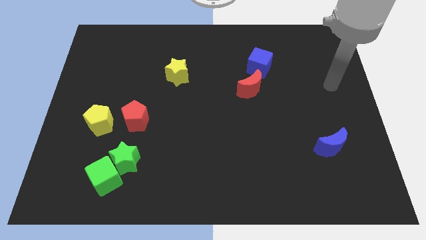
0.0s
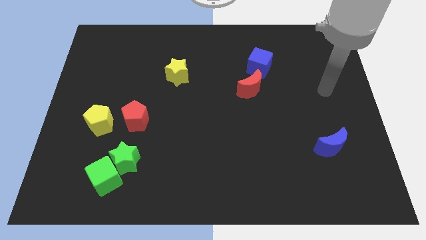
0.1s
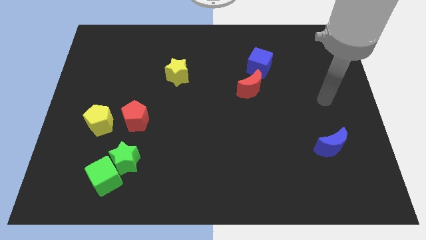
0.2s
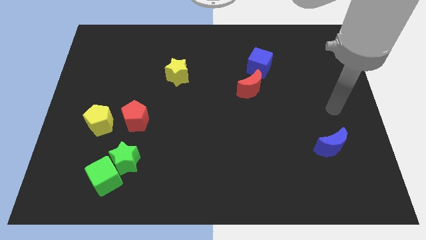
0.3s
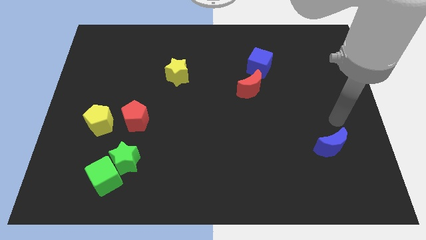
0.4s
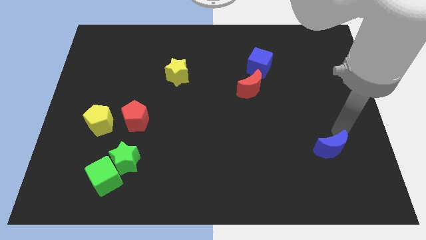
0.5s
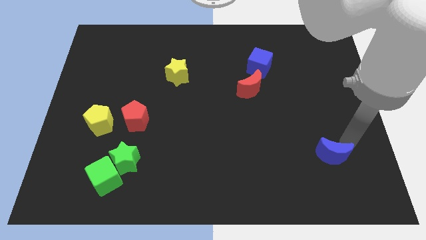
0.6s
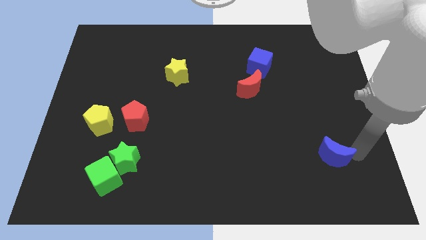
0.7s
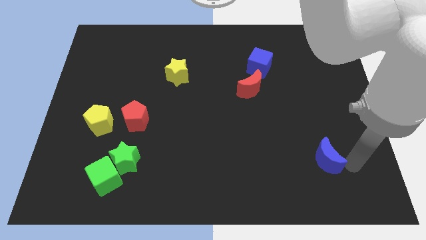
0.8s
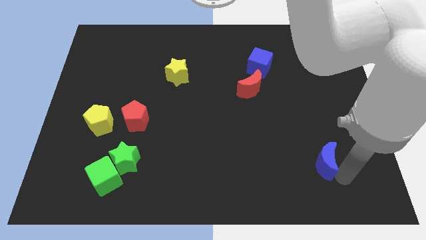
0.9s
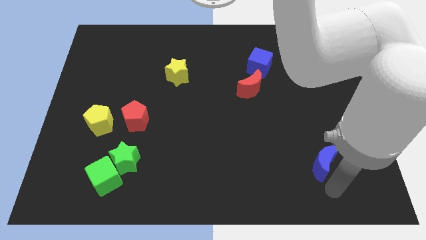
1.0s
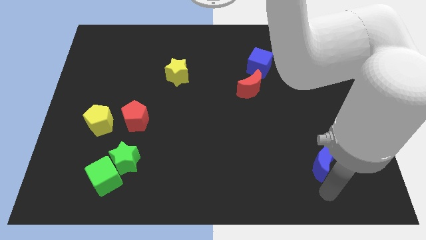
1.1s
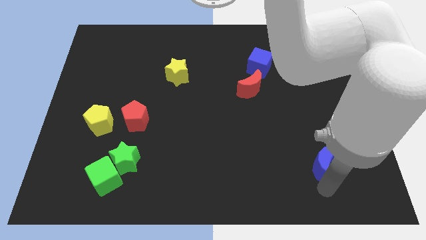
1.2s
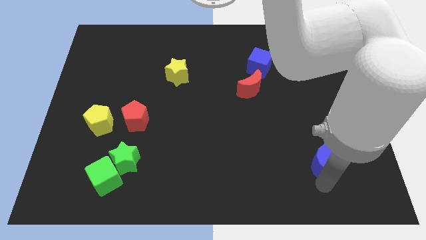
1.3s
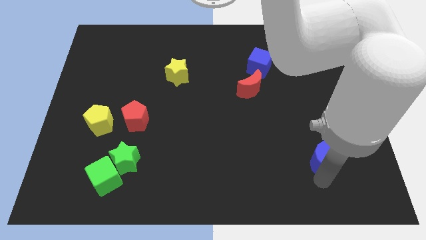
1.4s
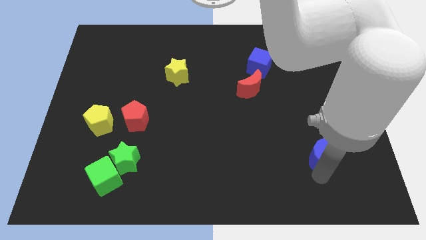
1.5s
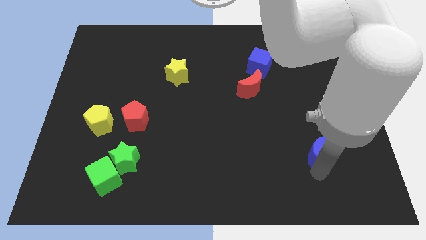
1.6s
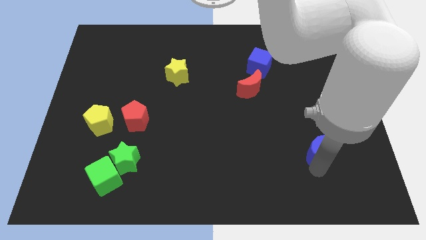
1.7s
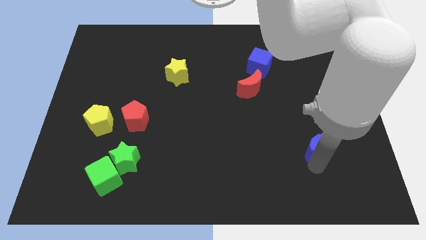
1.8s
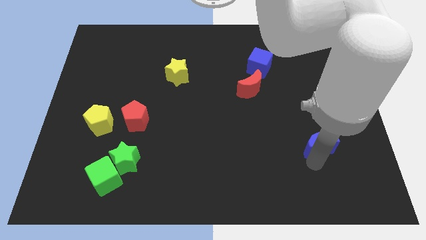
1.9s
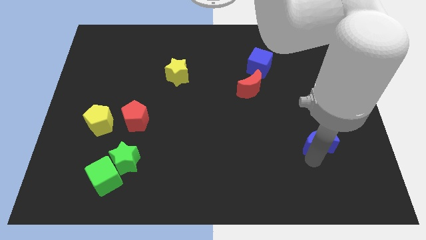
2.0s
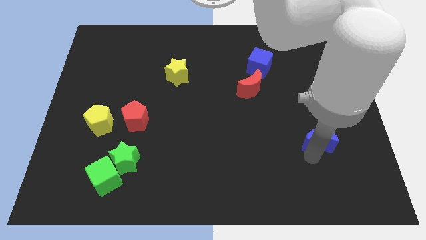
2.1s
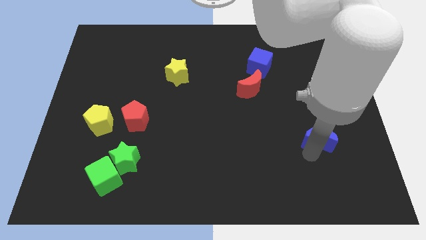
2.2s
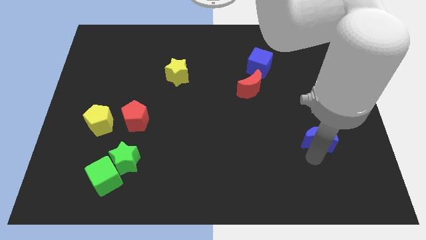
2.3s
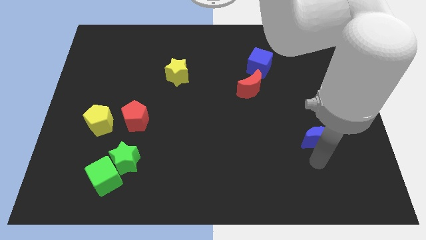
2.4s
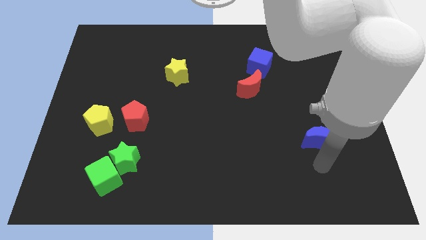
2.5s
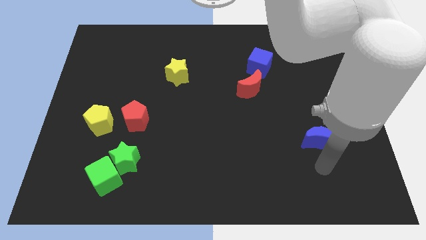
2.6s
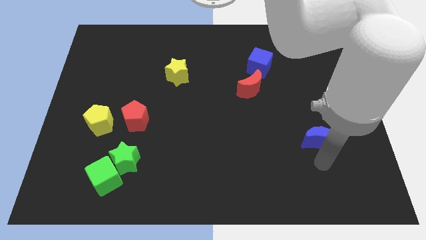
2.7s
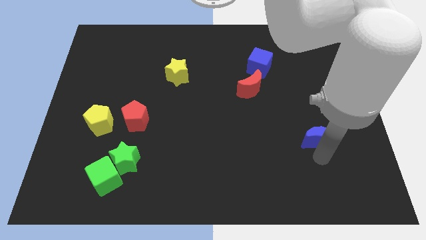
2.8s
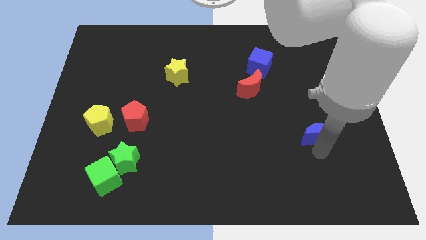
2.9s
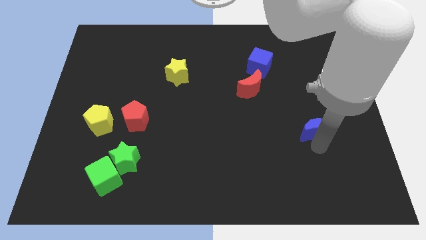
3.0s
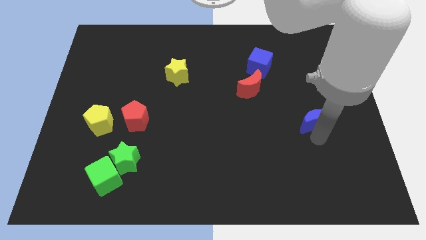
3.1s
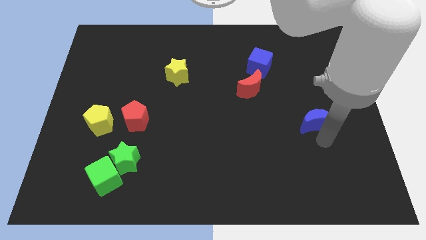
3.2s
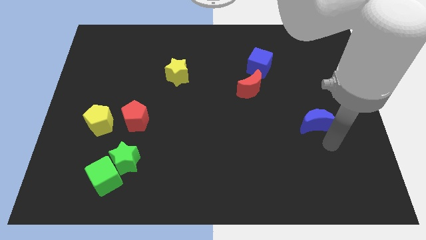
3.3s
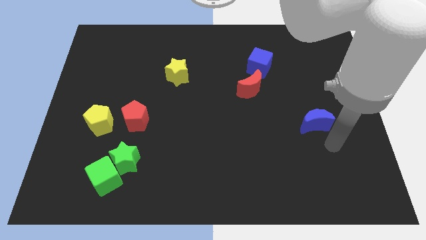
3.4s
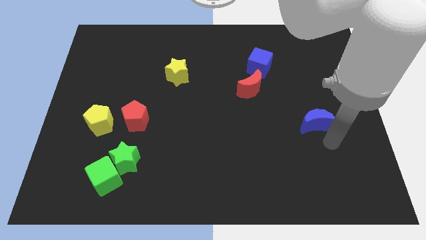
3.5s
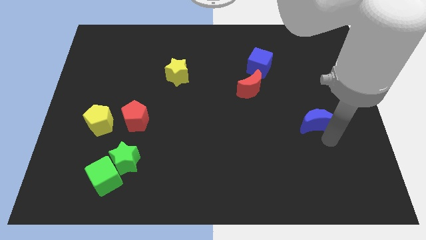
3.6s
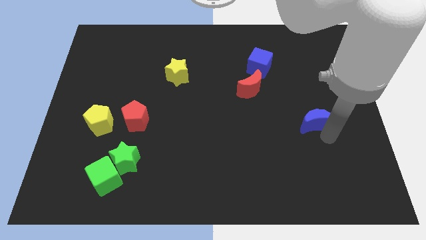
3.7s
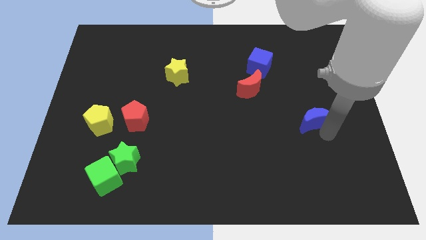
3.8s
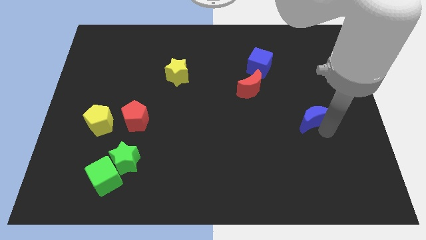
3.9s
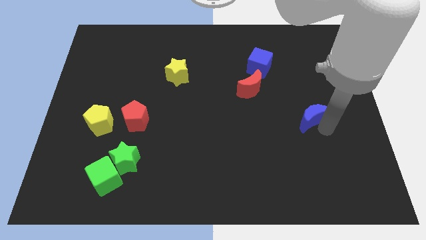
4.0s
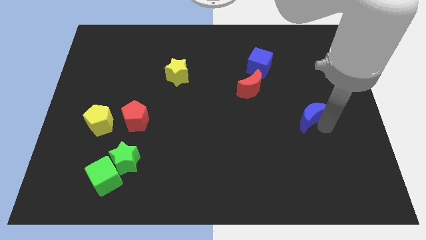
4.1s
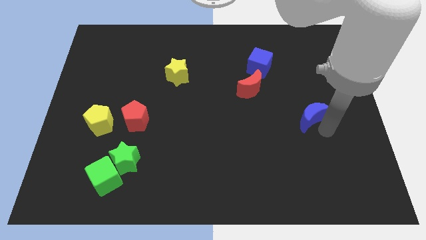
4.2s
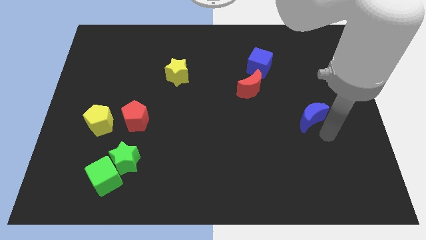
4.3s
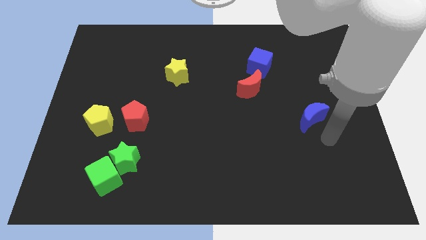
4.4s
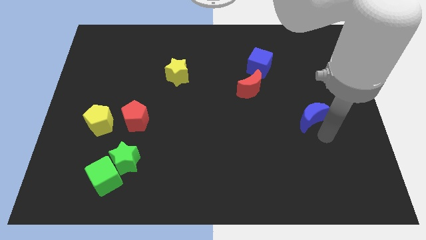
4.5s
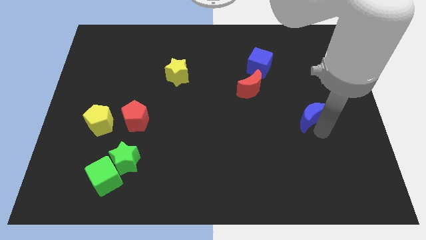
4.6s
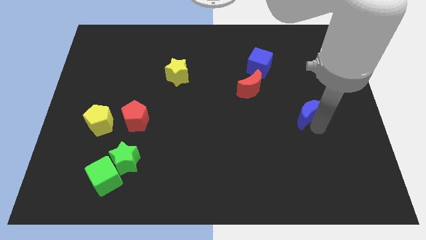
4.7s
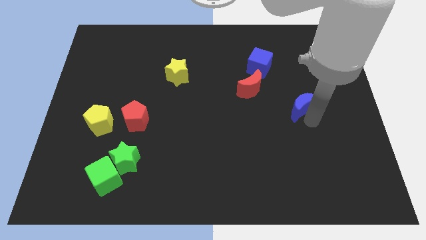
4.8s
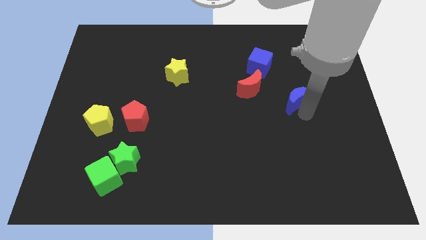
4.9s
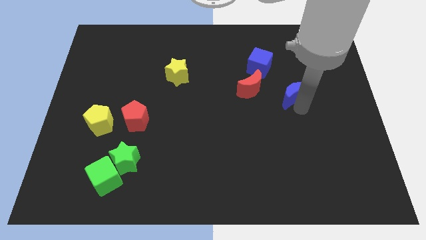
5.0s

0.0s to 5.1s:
slide the blue moon to the bottom right of the blue cube

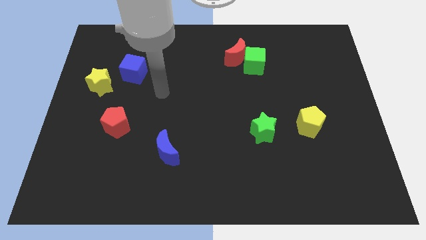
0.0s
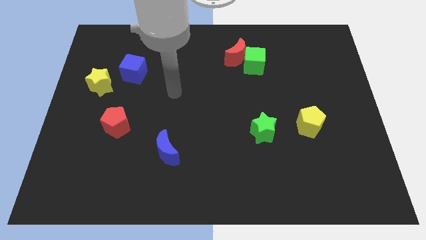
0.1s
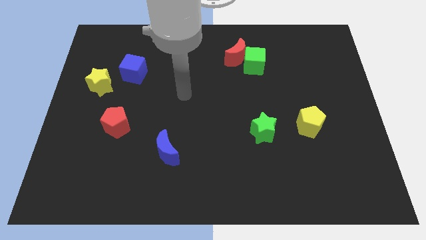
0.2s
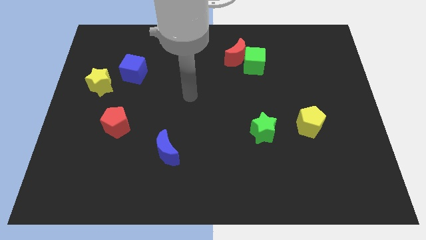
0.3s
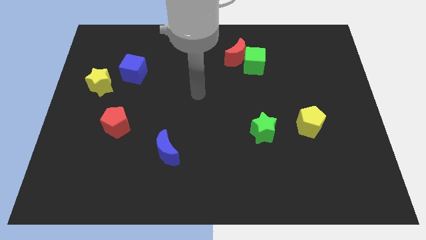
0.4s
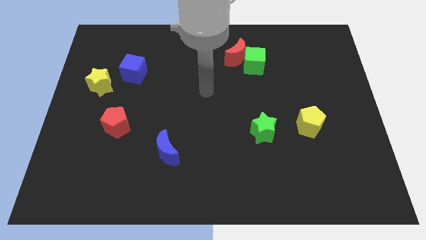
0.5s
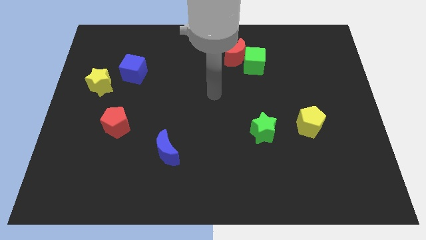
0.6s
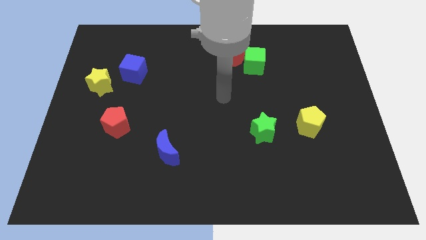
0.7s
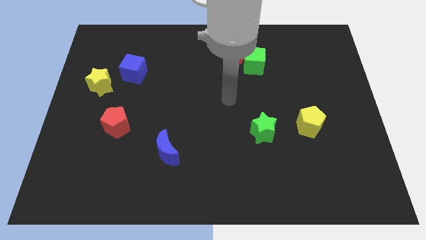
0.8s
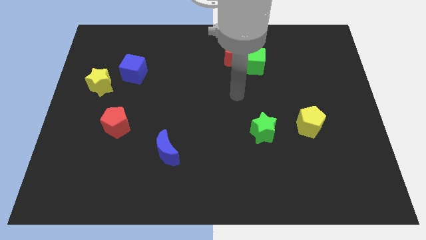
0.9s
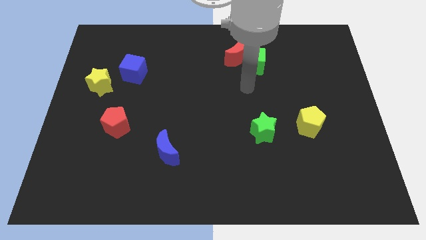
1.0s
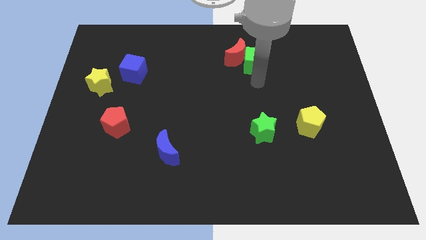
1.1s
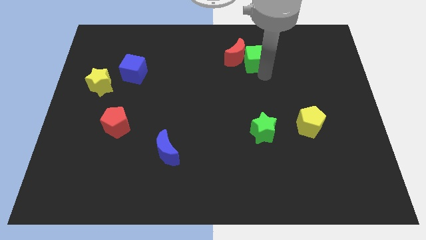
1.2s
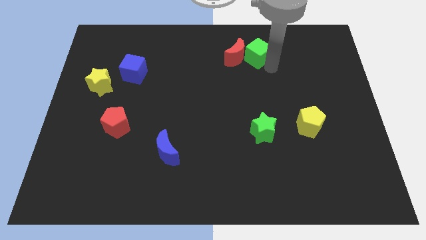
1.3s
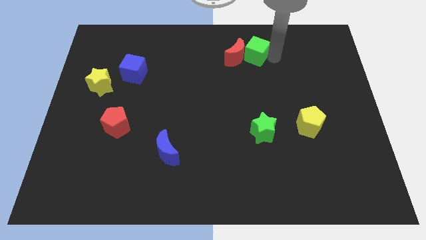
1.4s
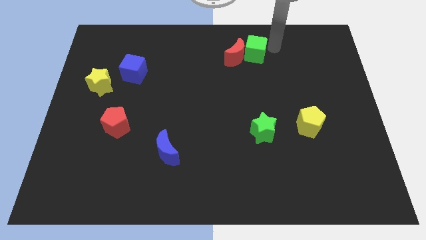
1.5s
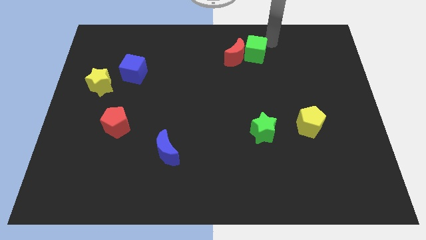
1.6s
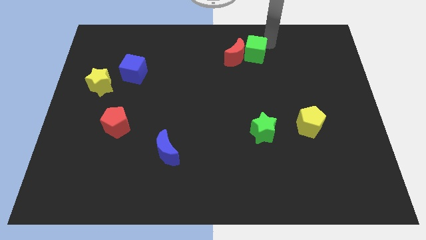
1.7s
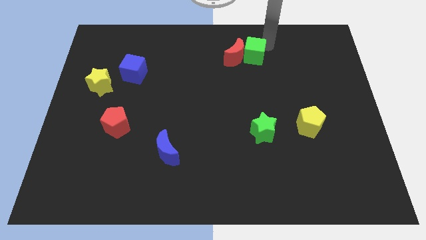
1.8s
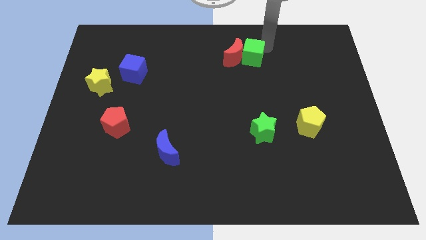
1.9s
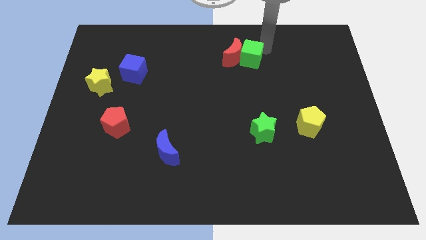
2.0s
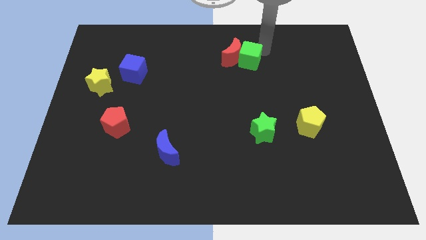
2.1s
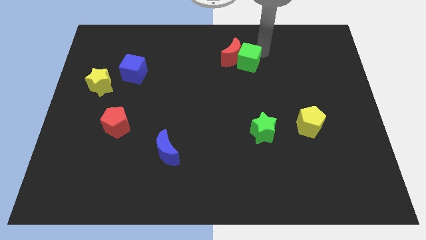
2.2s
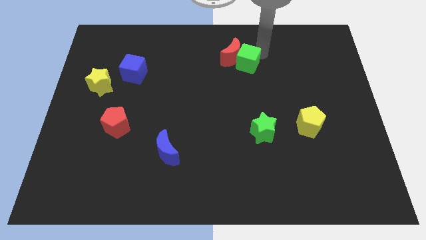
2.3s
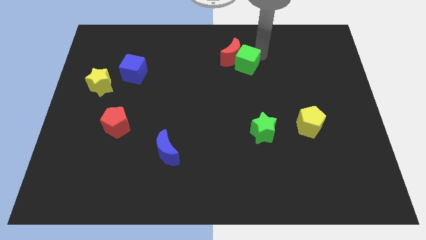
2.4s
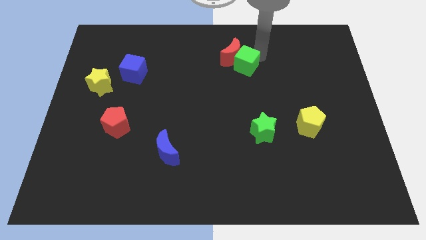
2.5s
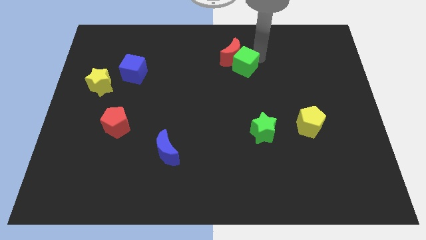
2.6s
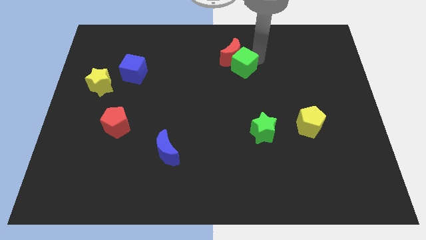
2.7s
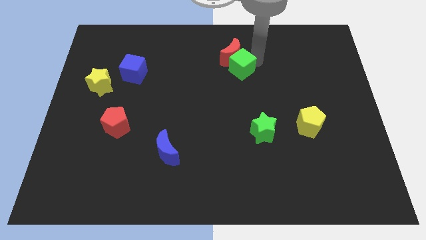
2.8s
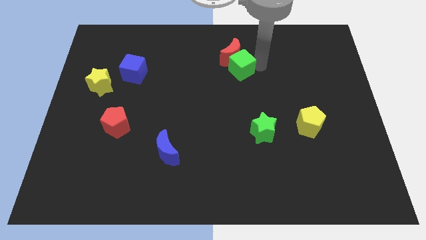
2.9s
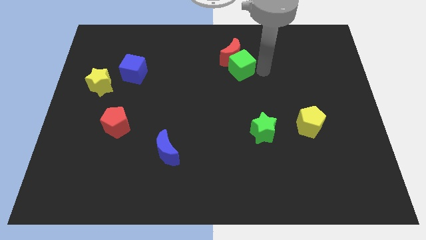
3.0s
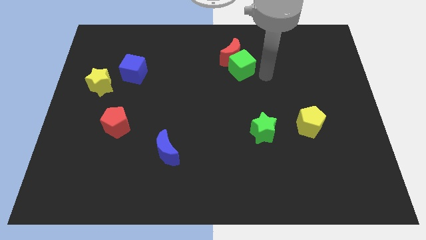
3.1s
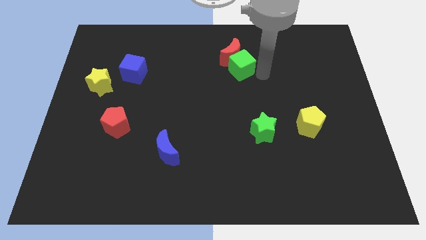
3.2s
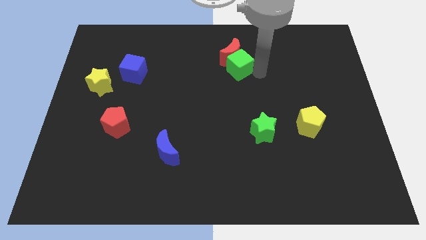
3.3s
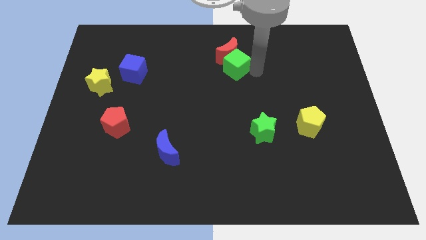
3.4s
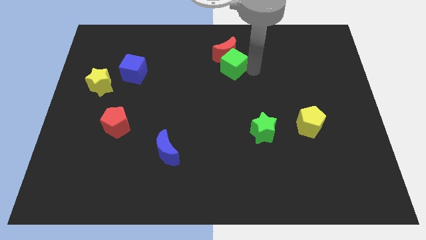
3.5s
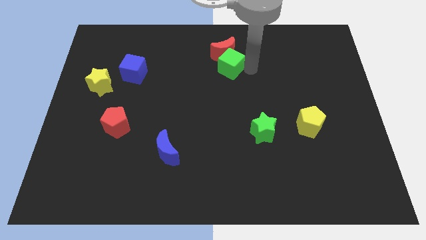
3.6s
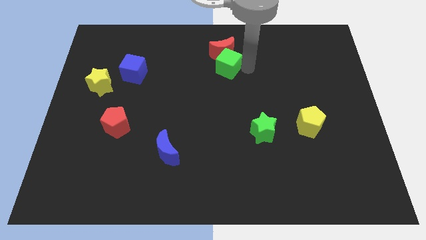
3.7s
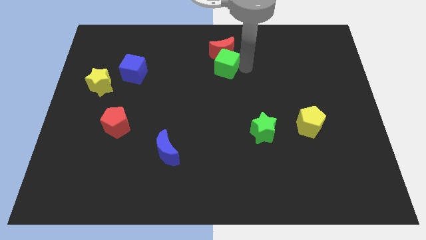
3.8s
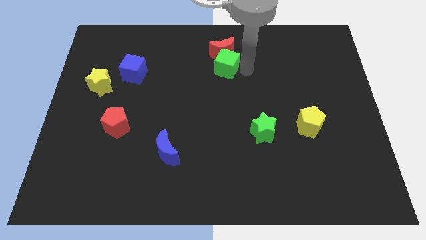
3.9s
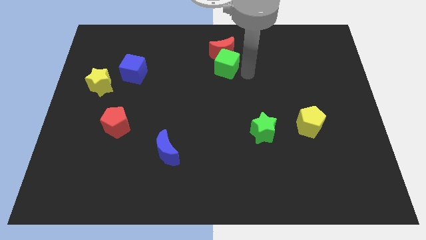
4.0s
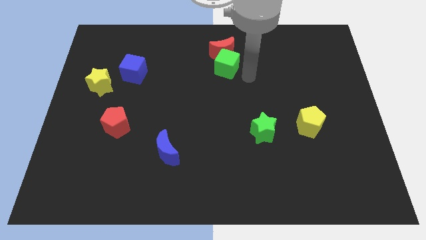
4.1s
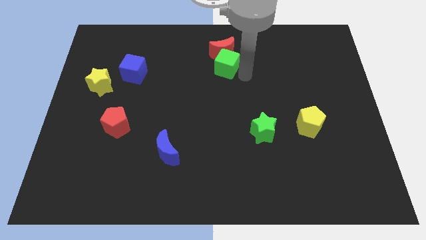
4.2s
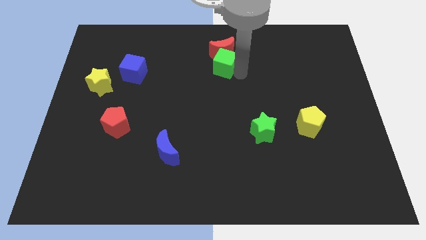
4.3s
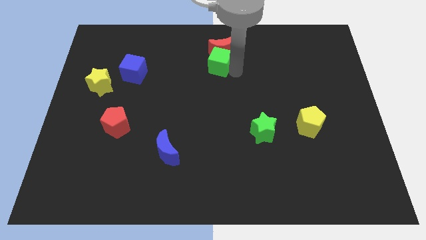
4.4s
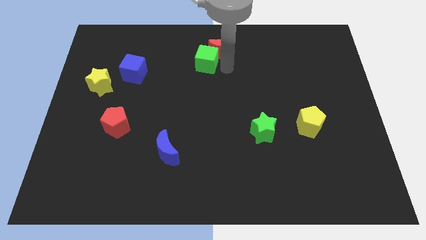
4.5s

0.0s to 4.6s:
put the green cube to the left side of the red moon
